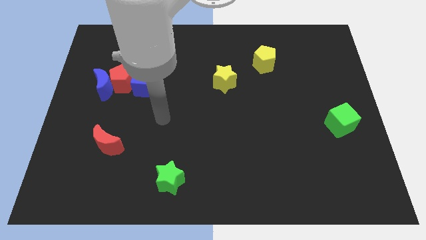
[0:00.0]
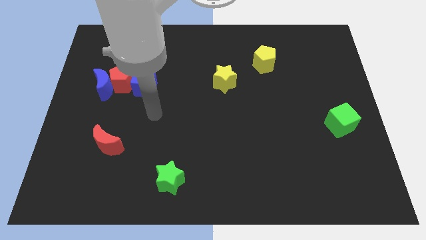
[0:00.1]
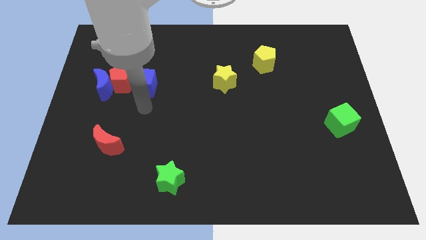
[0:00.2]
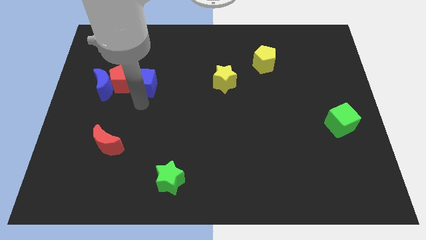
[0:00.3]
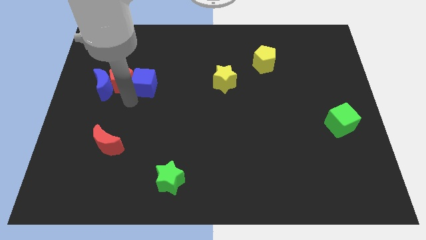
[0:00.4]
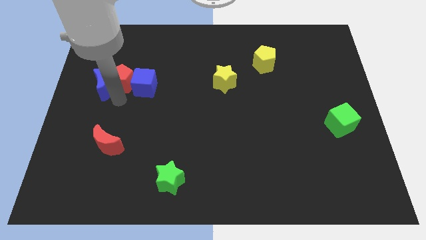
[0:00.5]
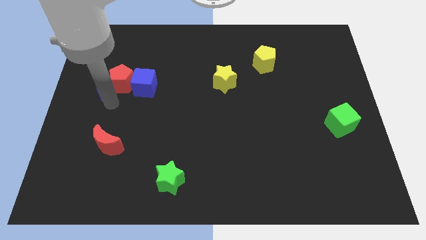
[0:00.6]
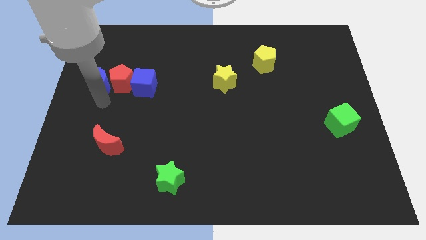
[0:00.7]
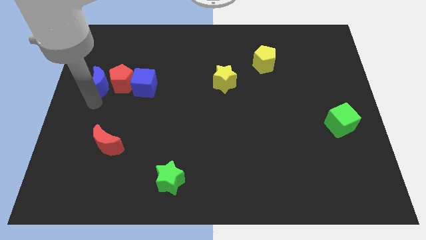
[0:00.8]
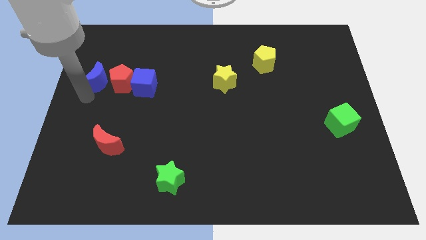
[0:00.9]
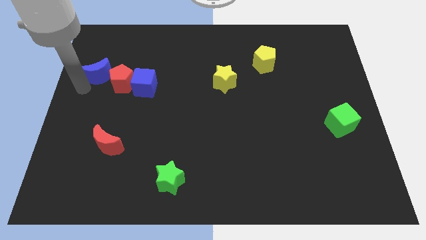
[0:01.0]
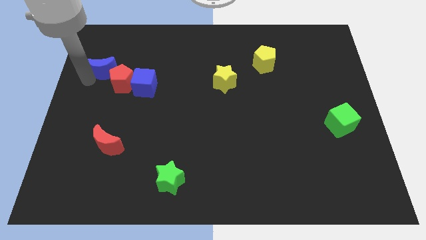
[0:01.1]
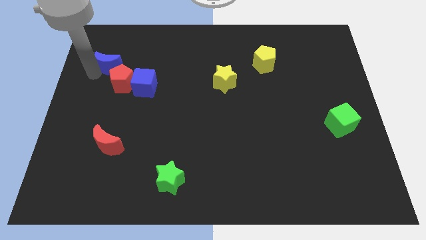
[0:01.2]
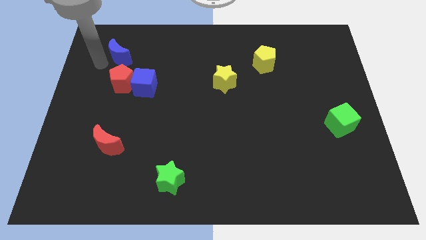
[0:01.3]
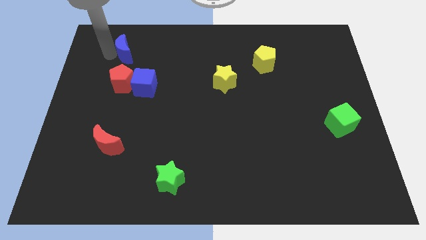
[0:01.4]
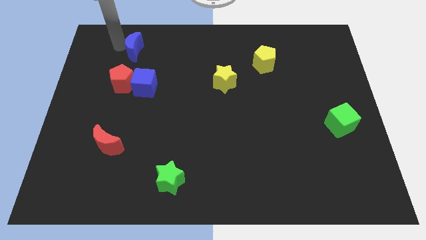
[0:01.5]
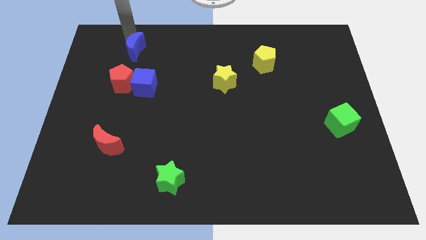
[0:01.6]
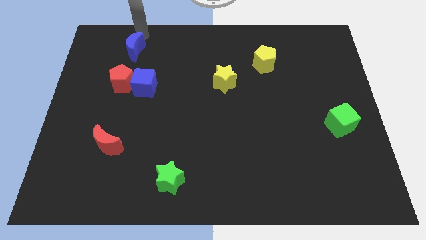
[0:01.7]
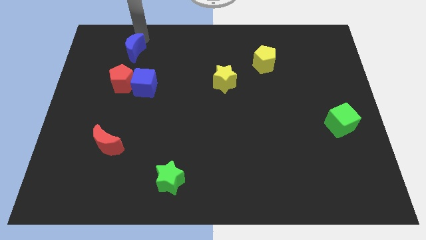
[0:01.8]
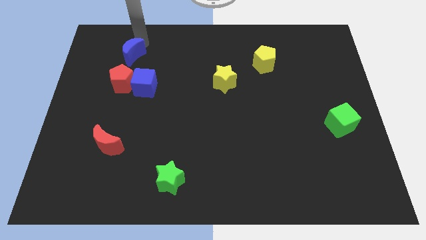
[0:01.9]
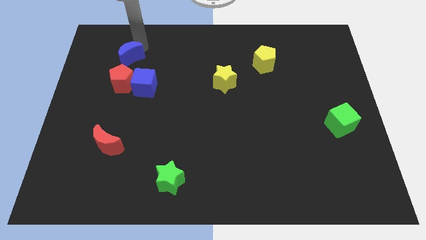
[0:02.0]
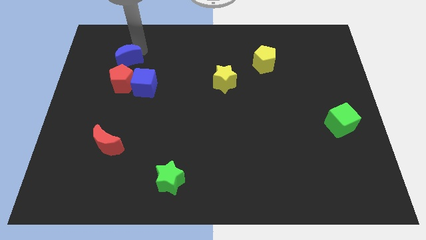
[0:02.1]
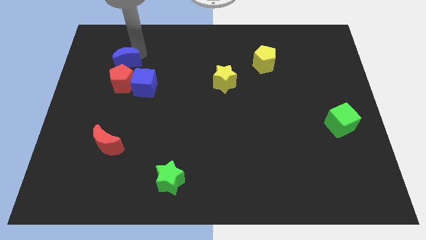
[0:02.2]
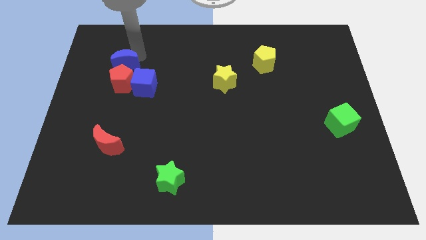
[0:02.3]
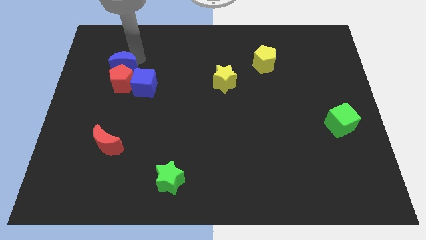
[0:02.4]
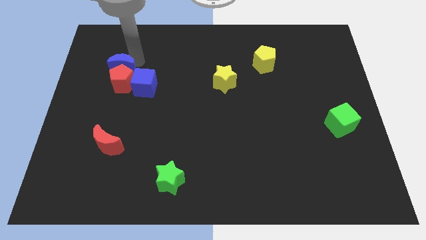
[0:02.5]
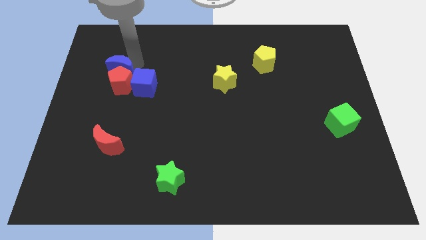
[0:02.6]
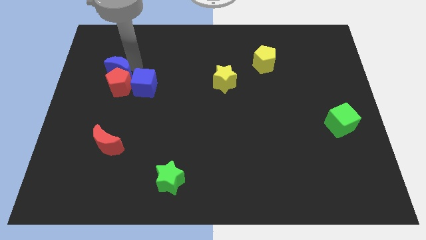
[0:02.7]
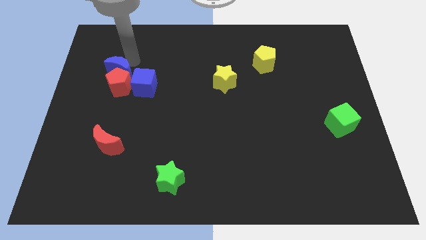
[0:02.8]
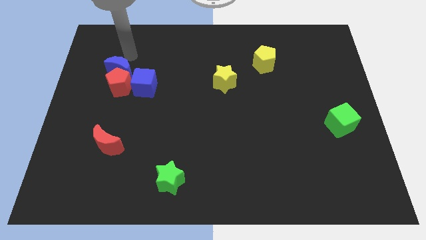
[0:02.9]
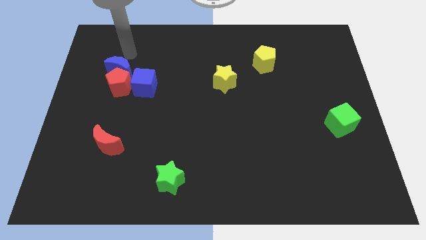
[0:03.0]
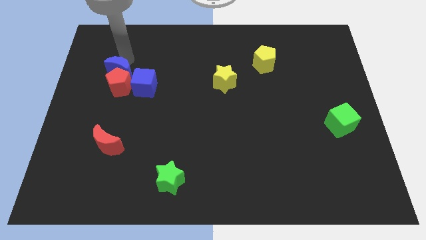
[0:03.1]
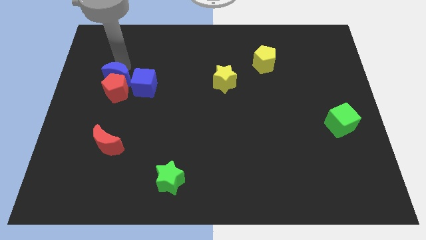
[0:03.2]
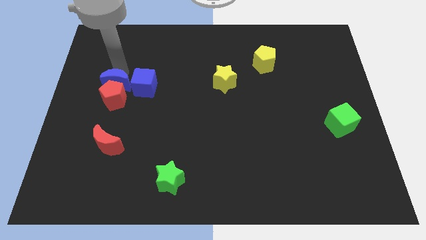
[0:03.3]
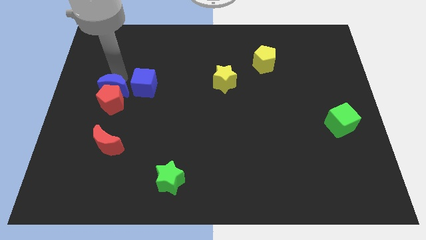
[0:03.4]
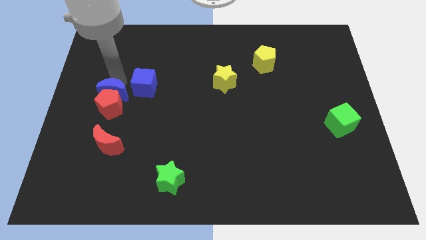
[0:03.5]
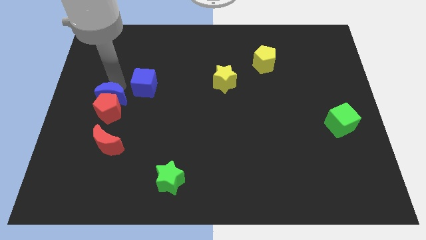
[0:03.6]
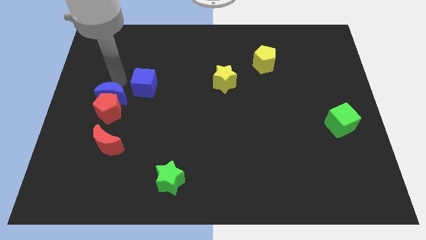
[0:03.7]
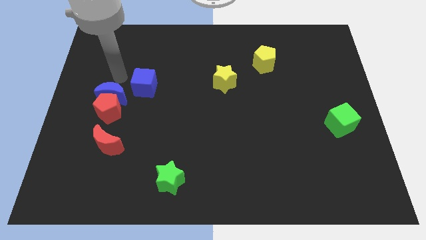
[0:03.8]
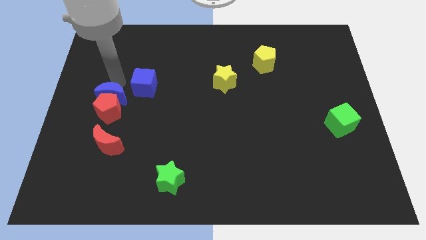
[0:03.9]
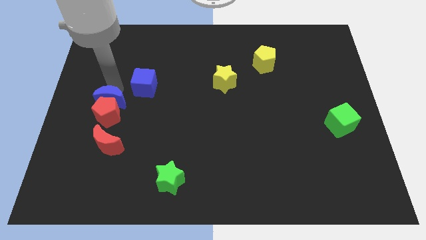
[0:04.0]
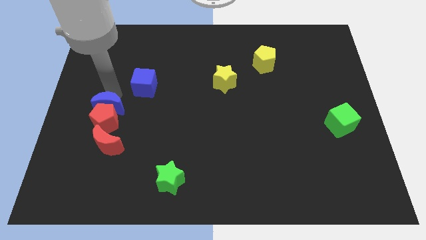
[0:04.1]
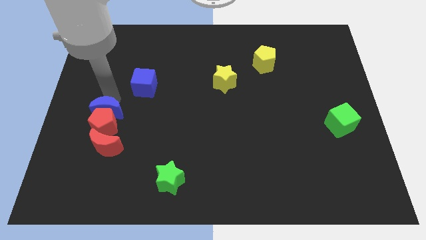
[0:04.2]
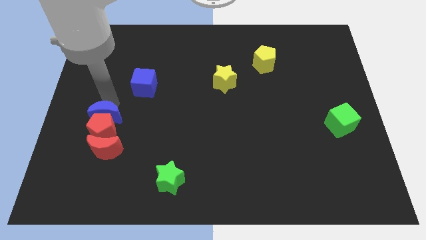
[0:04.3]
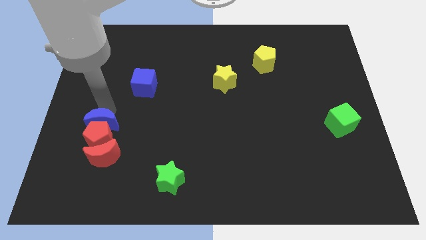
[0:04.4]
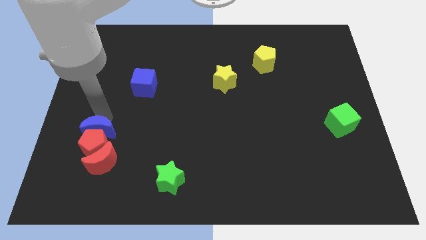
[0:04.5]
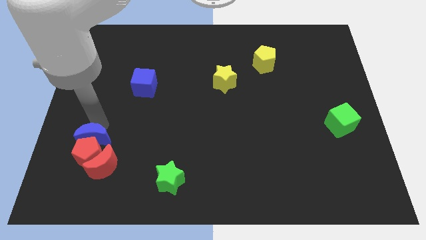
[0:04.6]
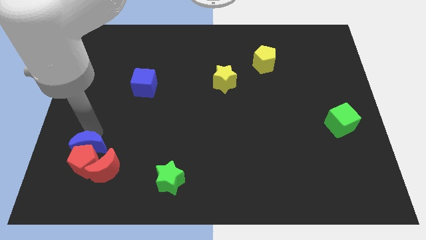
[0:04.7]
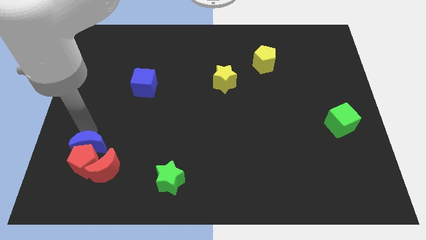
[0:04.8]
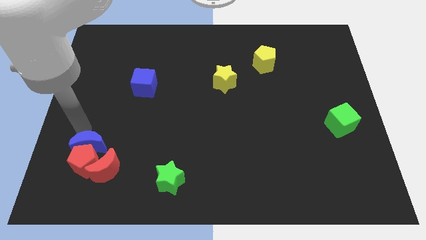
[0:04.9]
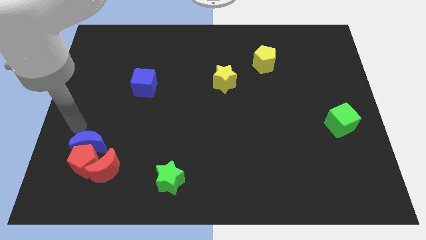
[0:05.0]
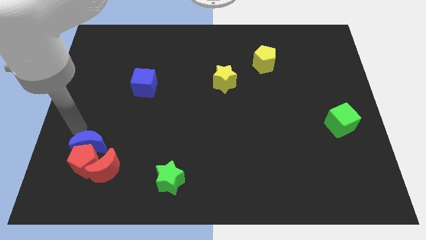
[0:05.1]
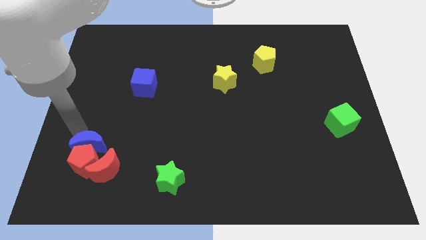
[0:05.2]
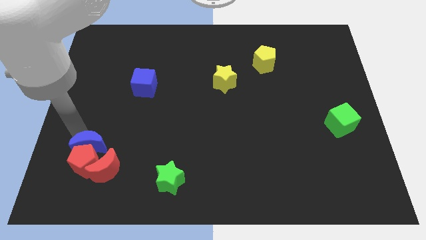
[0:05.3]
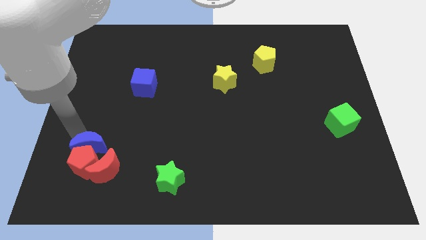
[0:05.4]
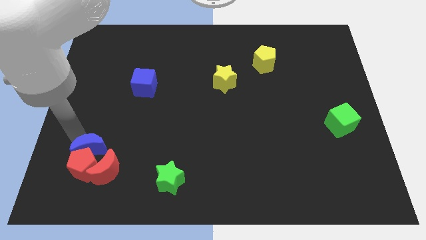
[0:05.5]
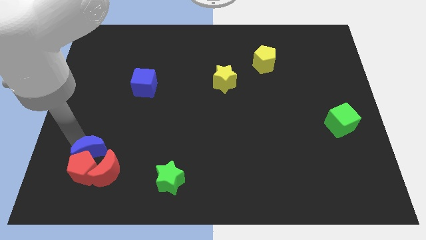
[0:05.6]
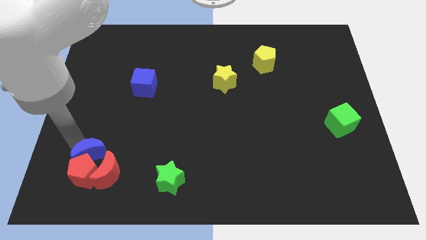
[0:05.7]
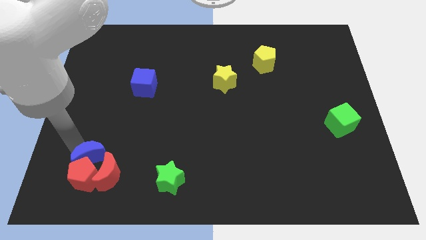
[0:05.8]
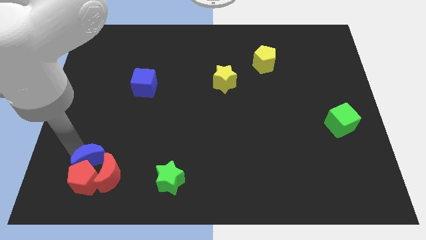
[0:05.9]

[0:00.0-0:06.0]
put the blue moon close to the red moon

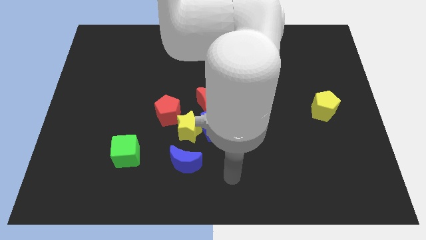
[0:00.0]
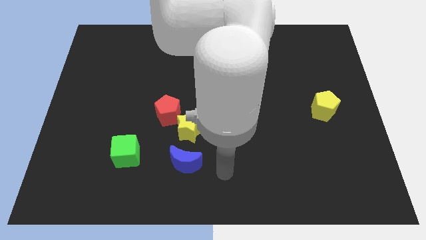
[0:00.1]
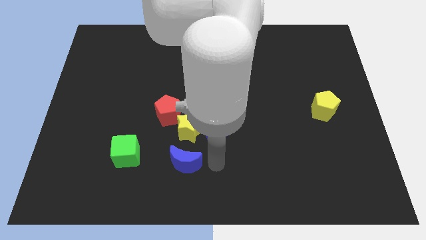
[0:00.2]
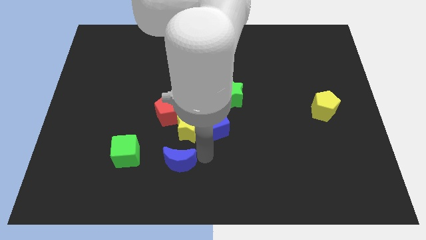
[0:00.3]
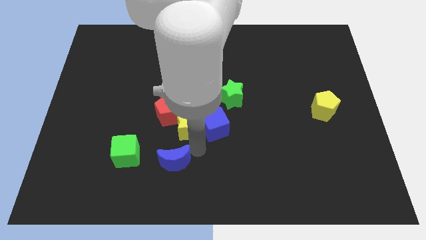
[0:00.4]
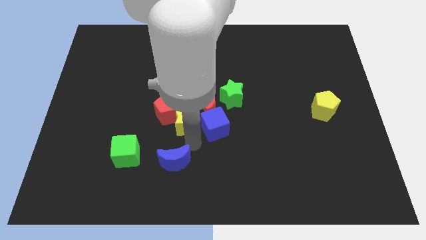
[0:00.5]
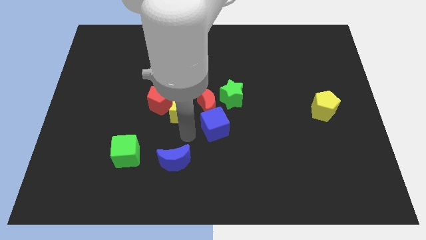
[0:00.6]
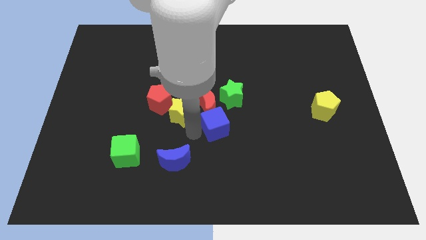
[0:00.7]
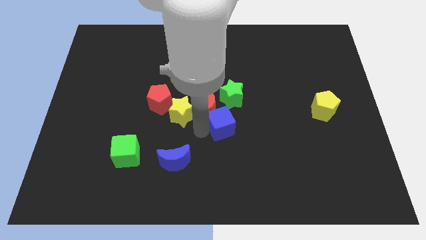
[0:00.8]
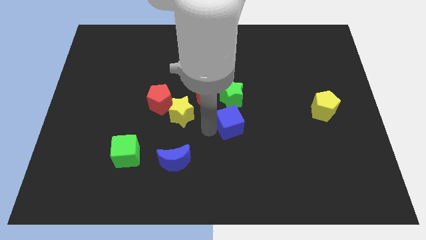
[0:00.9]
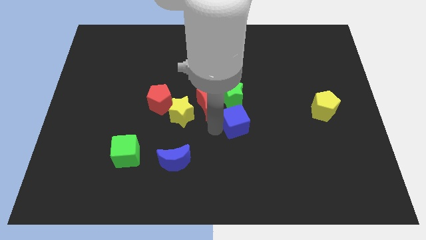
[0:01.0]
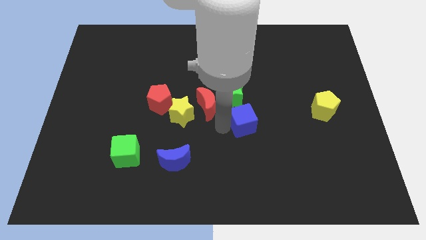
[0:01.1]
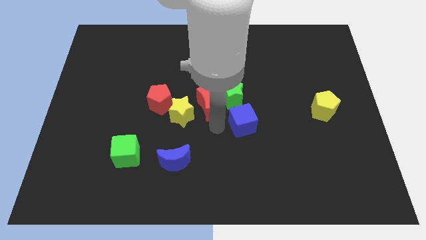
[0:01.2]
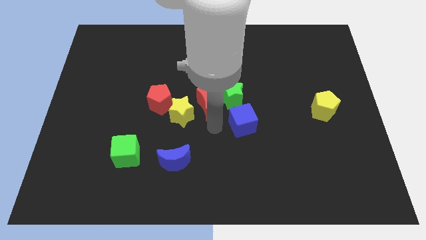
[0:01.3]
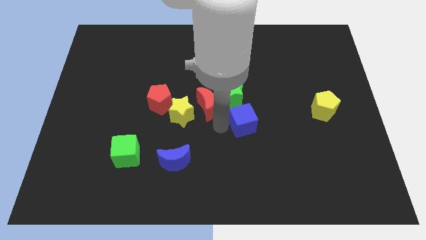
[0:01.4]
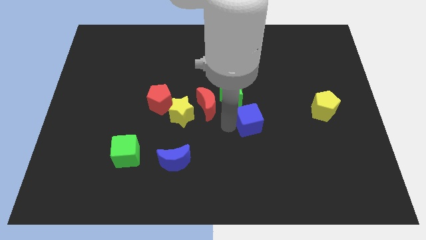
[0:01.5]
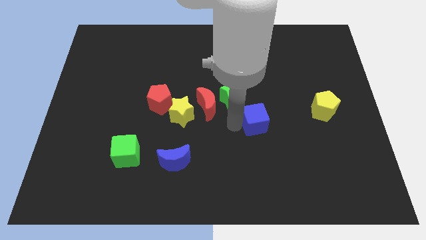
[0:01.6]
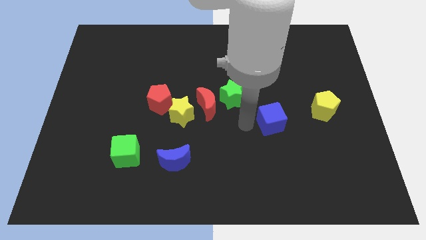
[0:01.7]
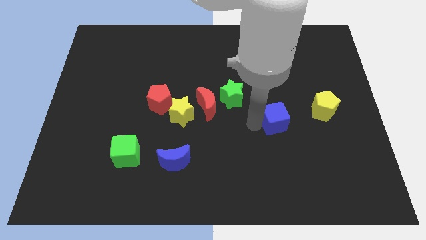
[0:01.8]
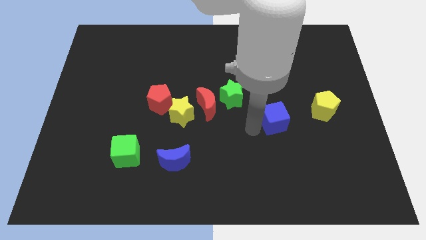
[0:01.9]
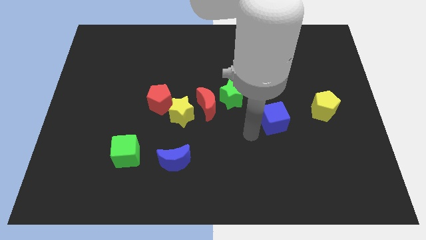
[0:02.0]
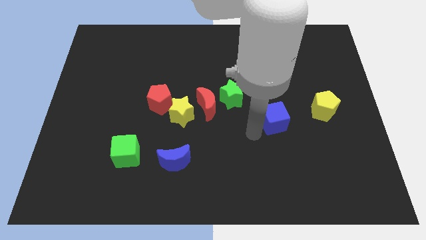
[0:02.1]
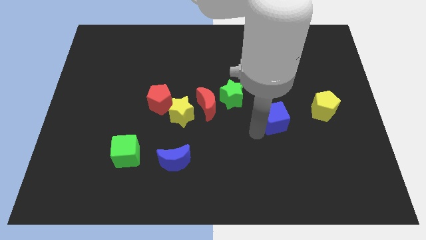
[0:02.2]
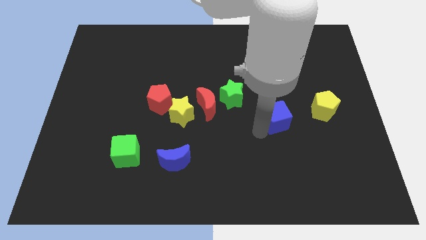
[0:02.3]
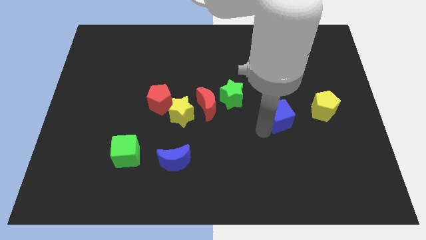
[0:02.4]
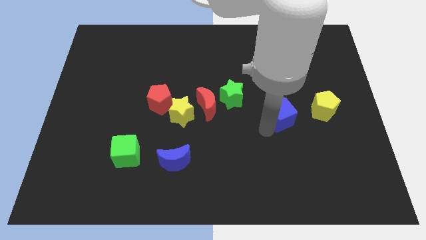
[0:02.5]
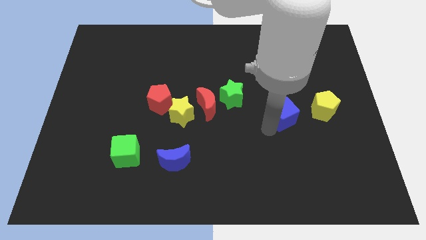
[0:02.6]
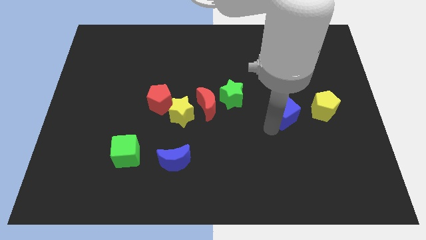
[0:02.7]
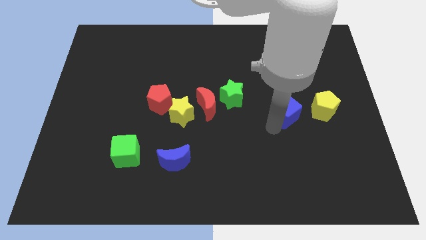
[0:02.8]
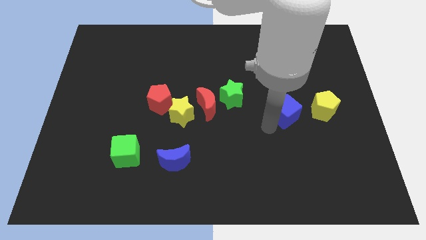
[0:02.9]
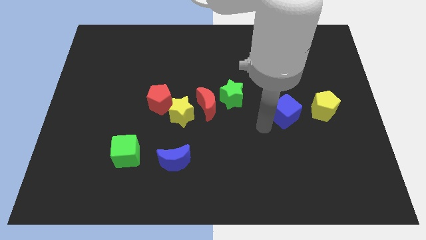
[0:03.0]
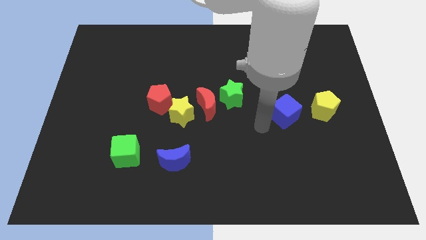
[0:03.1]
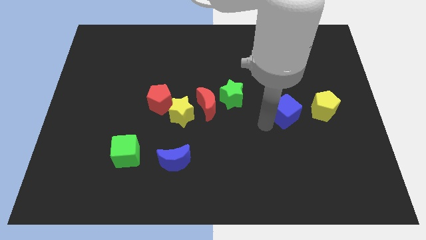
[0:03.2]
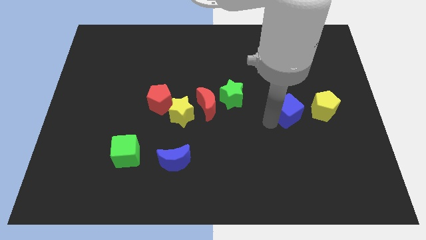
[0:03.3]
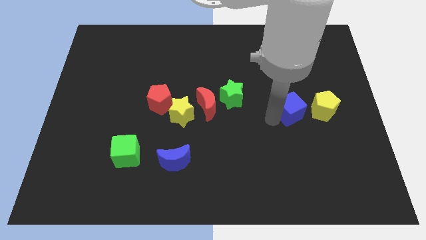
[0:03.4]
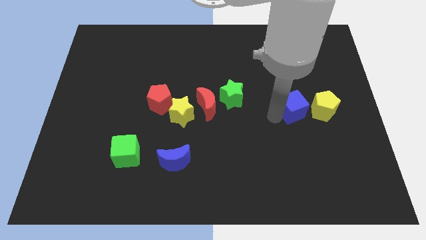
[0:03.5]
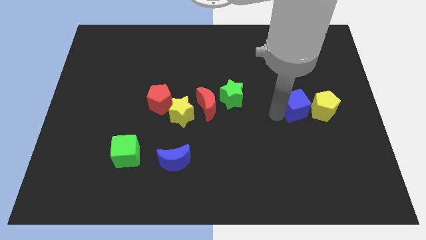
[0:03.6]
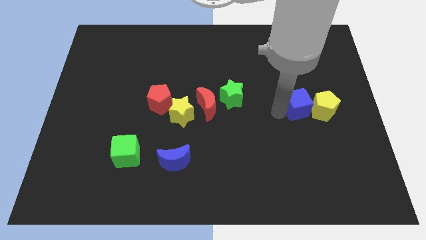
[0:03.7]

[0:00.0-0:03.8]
move the blue cube to the yellow pentagon
